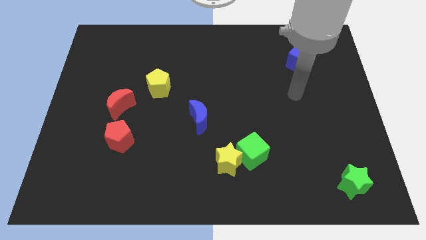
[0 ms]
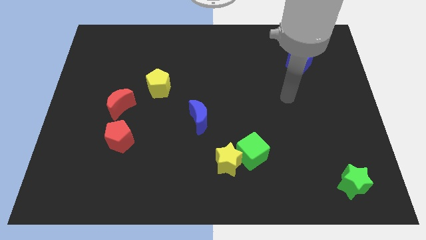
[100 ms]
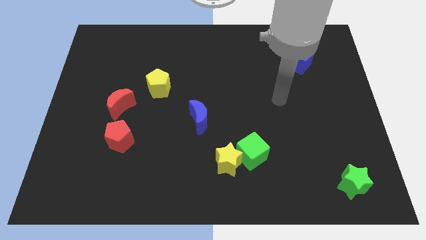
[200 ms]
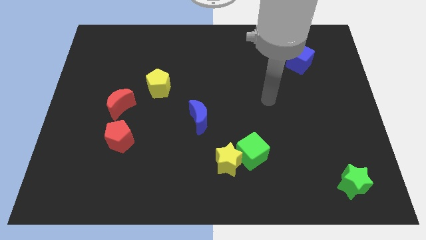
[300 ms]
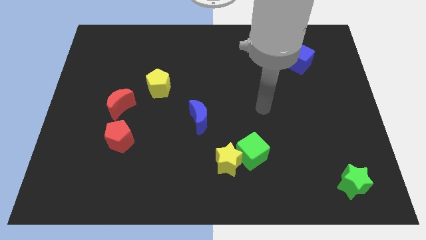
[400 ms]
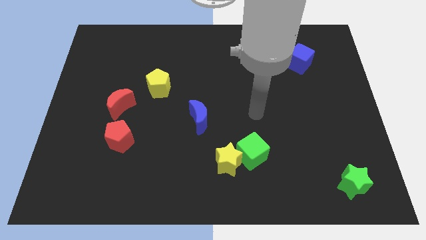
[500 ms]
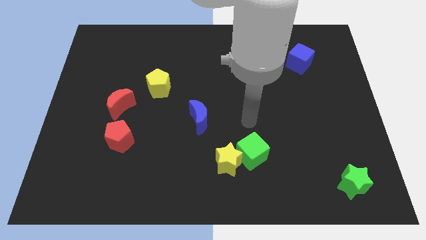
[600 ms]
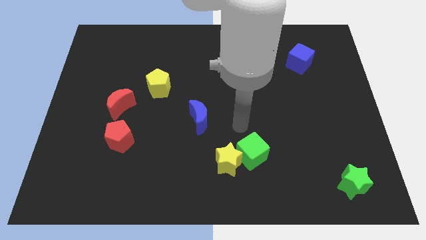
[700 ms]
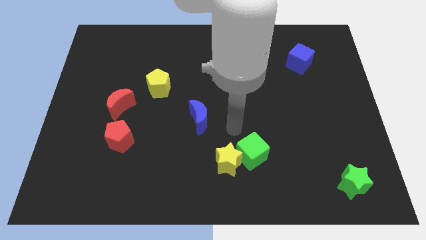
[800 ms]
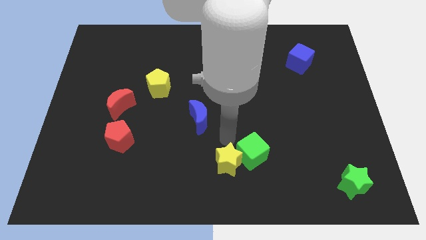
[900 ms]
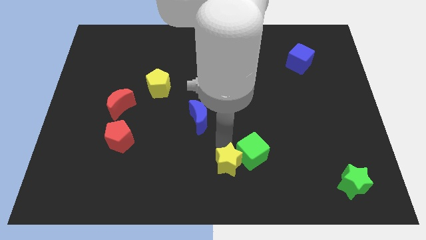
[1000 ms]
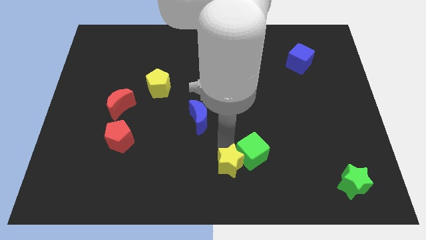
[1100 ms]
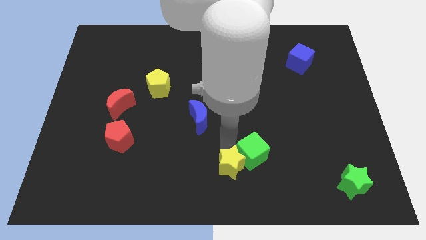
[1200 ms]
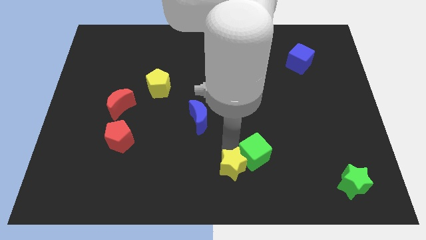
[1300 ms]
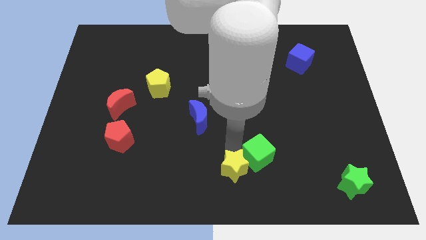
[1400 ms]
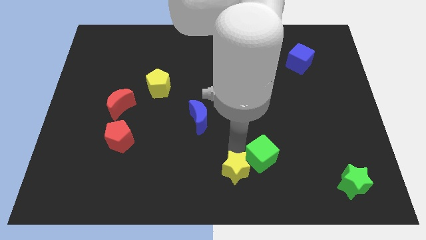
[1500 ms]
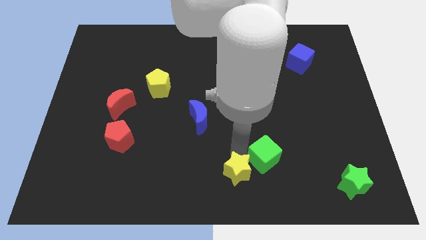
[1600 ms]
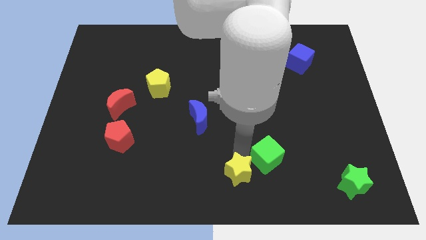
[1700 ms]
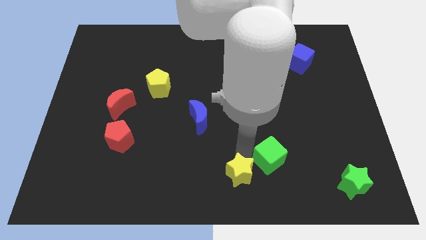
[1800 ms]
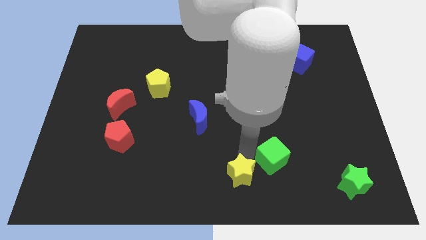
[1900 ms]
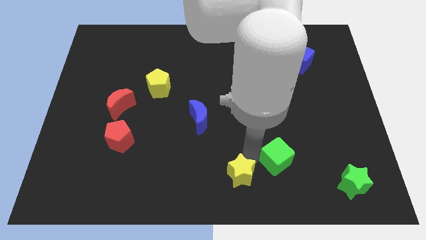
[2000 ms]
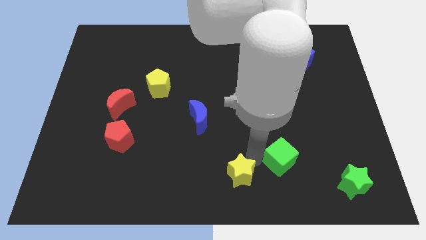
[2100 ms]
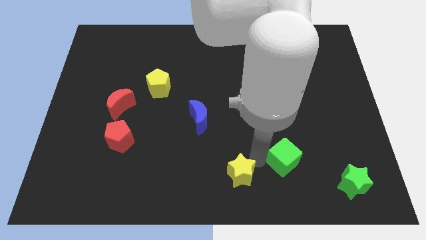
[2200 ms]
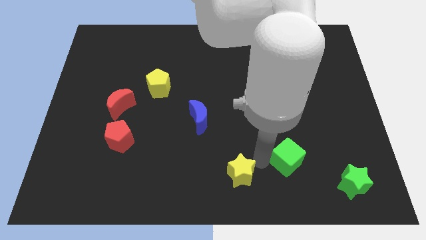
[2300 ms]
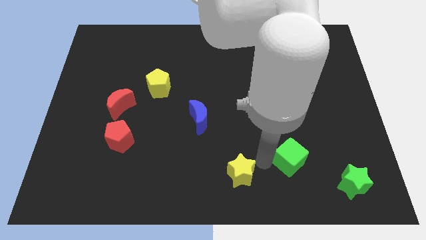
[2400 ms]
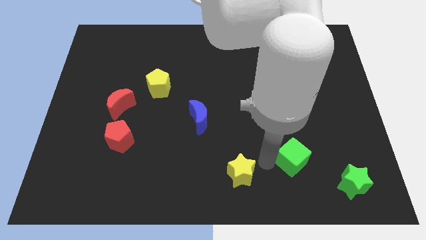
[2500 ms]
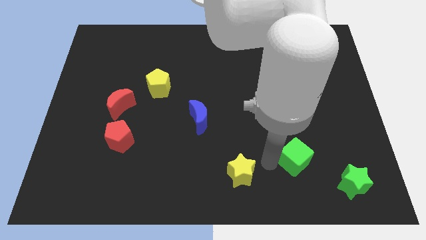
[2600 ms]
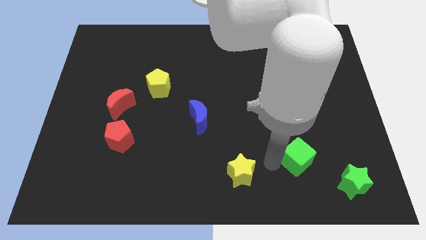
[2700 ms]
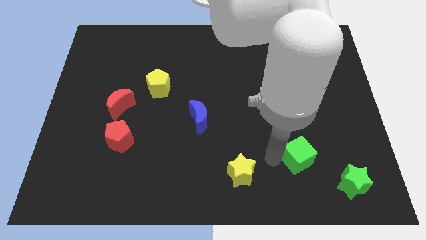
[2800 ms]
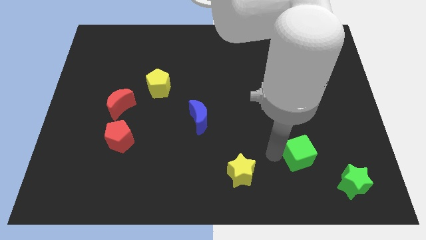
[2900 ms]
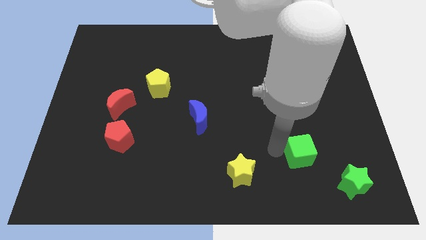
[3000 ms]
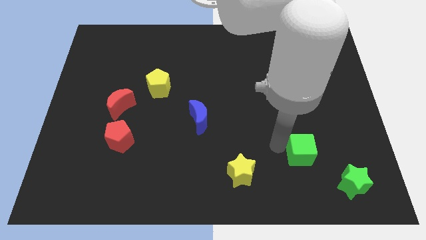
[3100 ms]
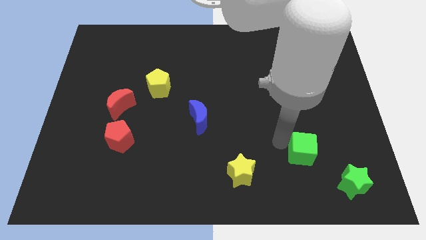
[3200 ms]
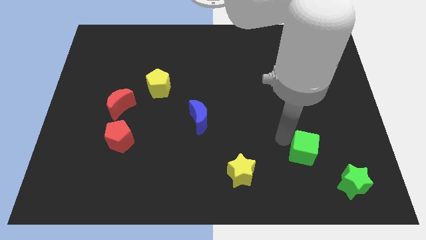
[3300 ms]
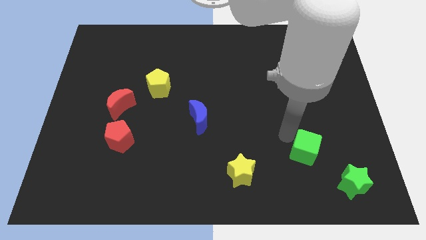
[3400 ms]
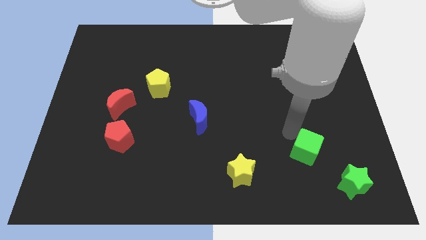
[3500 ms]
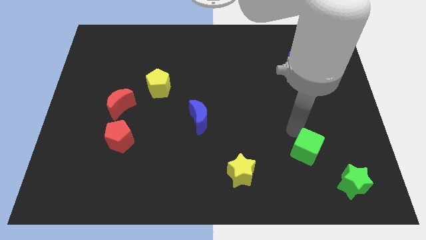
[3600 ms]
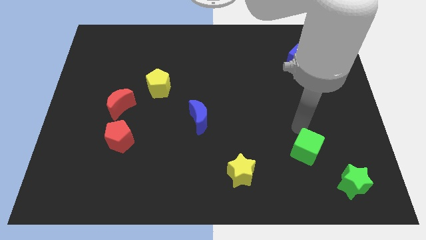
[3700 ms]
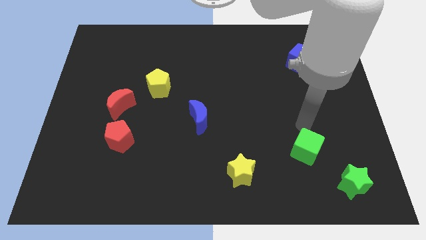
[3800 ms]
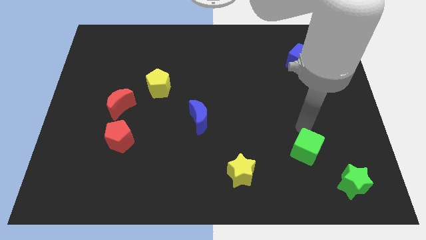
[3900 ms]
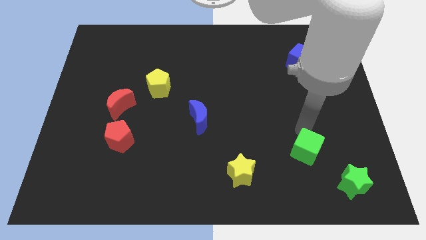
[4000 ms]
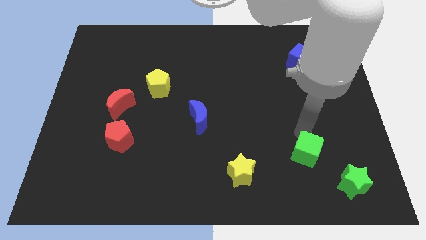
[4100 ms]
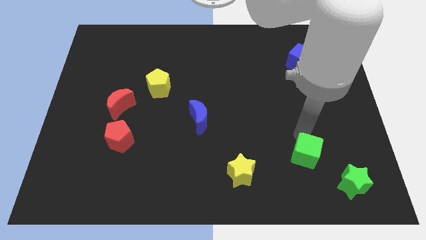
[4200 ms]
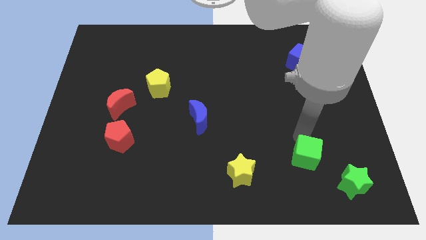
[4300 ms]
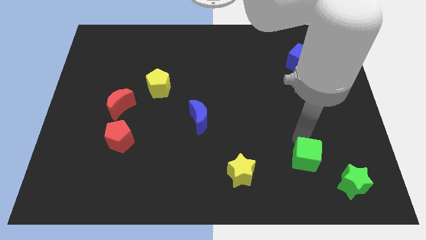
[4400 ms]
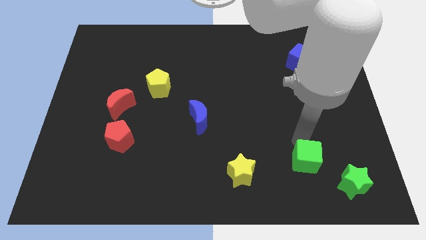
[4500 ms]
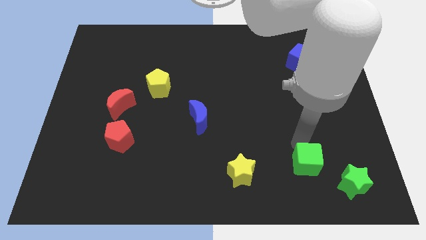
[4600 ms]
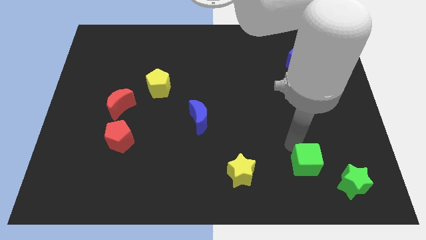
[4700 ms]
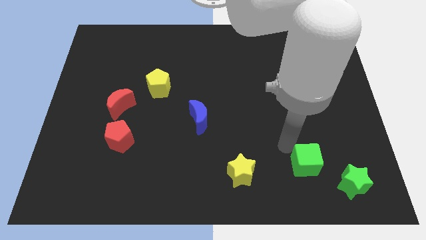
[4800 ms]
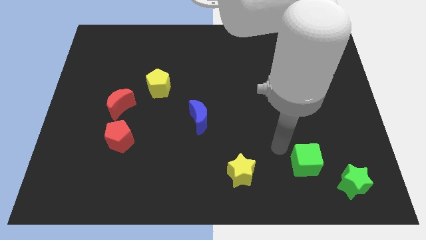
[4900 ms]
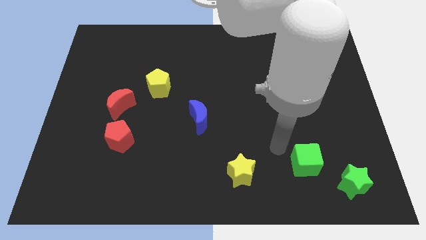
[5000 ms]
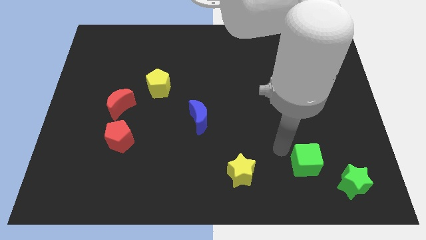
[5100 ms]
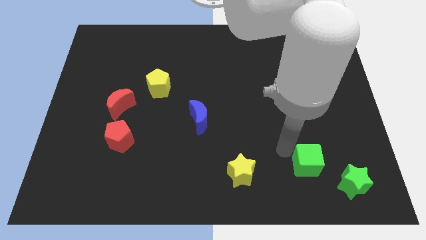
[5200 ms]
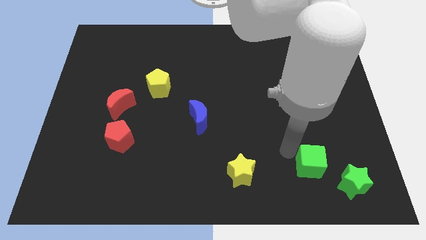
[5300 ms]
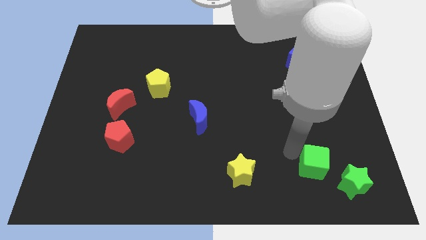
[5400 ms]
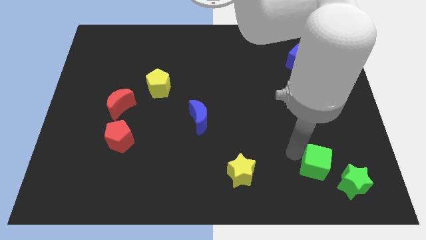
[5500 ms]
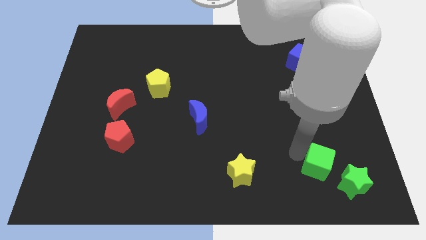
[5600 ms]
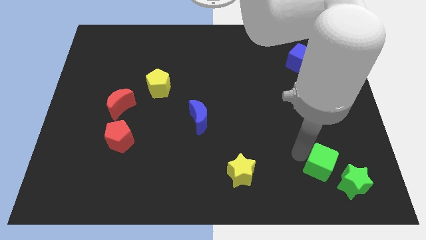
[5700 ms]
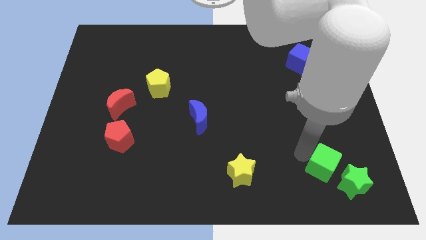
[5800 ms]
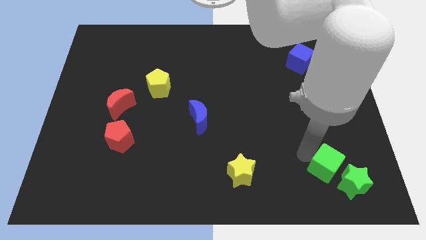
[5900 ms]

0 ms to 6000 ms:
push the green cube next to the green star

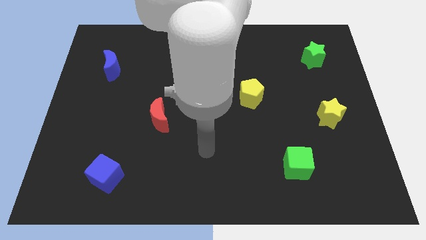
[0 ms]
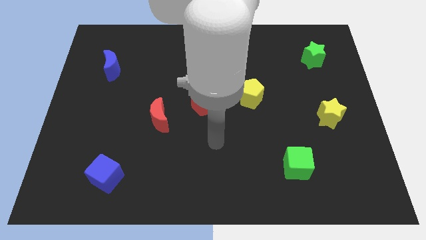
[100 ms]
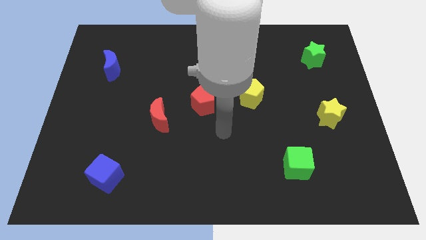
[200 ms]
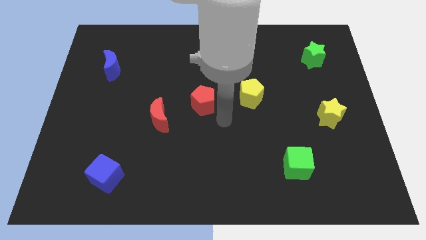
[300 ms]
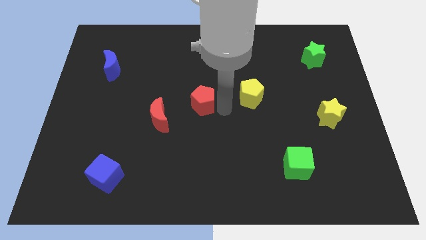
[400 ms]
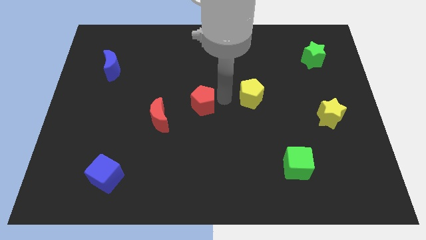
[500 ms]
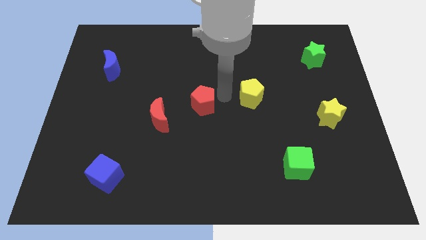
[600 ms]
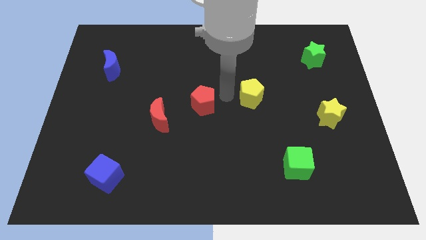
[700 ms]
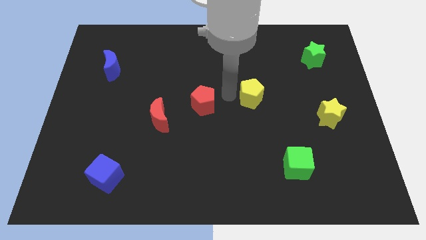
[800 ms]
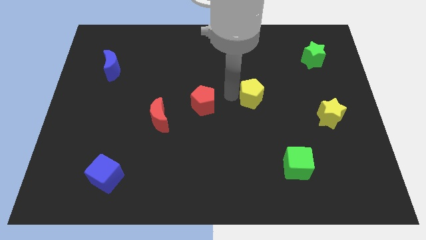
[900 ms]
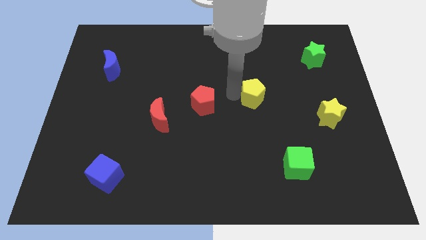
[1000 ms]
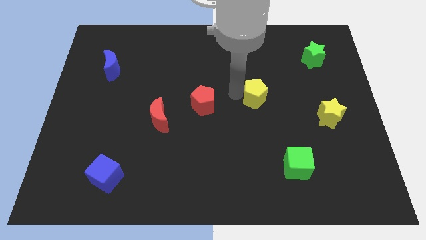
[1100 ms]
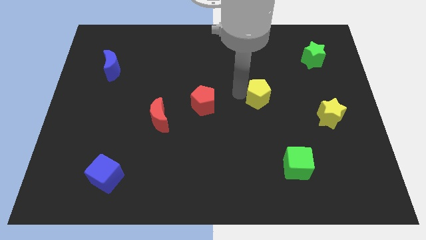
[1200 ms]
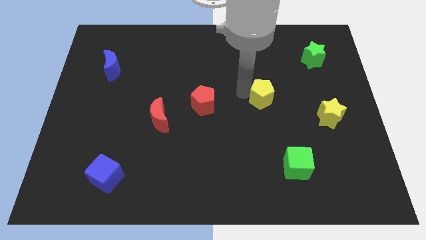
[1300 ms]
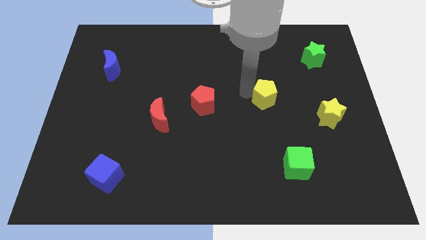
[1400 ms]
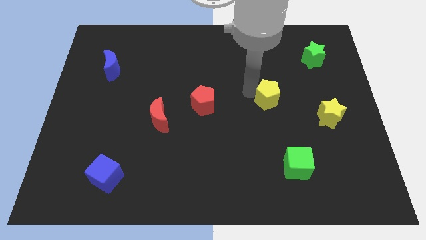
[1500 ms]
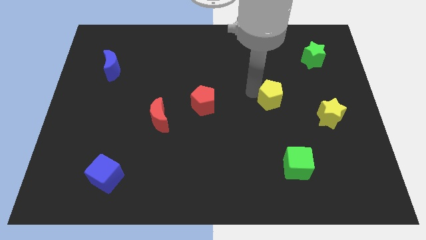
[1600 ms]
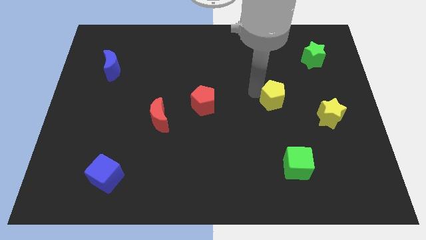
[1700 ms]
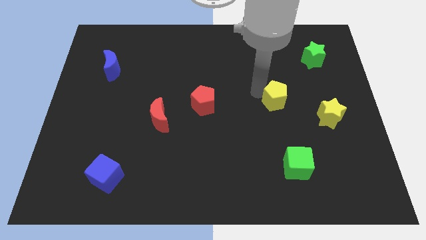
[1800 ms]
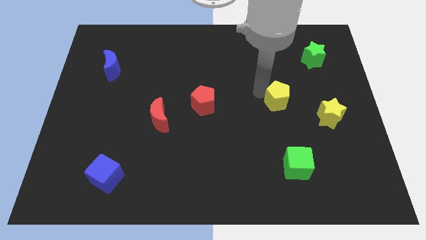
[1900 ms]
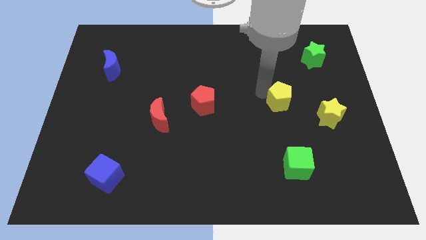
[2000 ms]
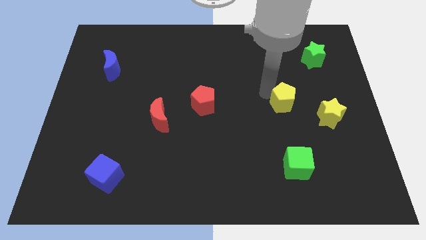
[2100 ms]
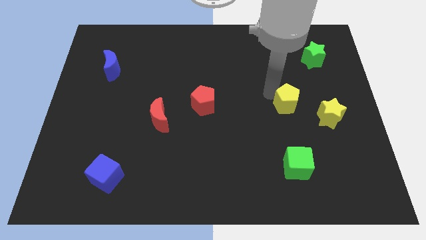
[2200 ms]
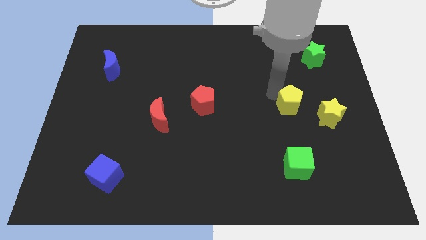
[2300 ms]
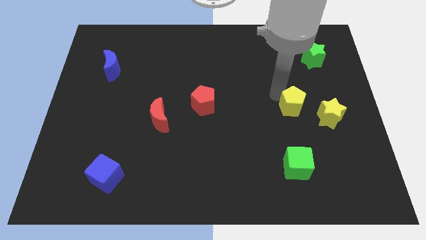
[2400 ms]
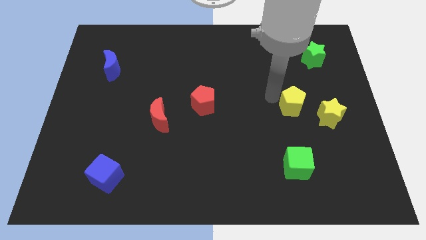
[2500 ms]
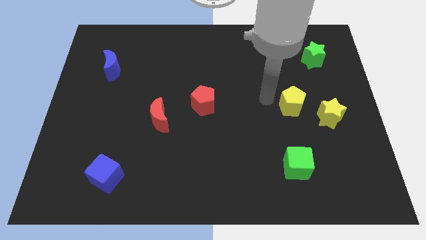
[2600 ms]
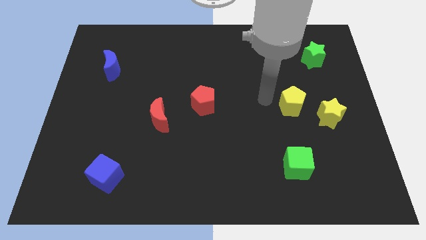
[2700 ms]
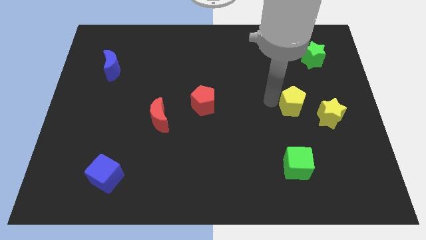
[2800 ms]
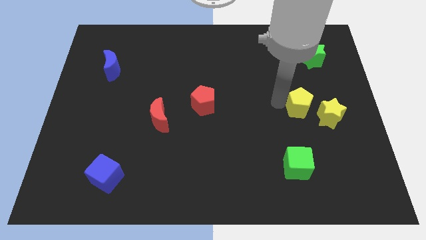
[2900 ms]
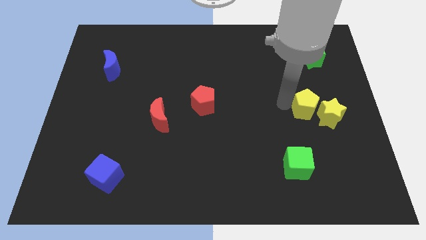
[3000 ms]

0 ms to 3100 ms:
put the yellow pentagon next to the yellow star
